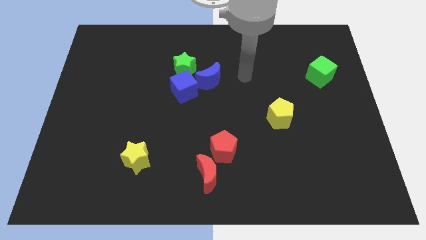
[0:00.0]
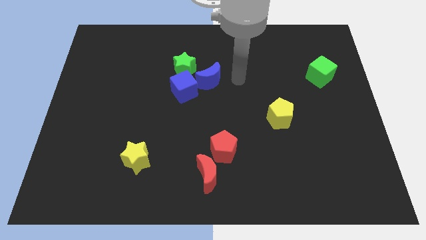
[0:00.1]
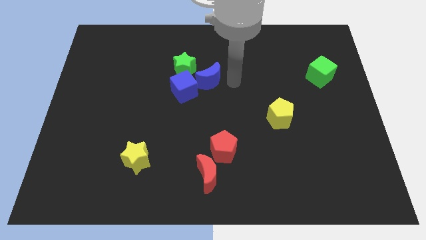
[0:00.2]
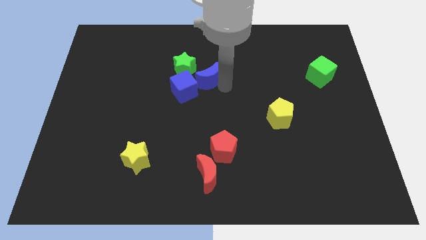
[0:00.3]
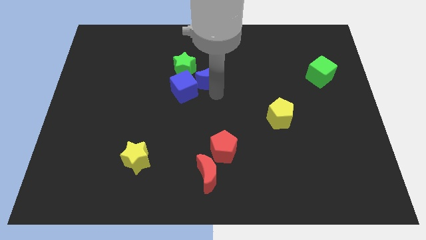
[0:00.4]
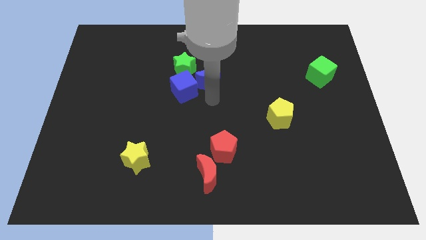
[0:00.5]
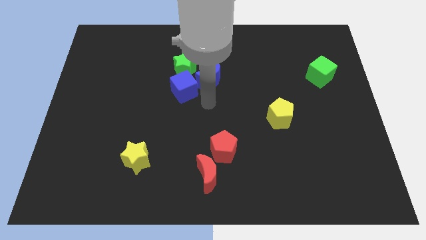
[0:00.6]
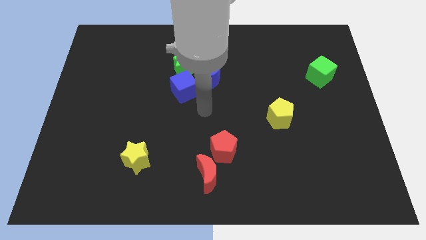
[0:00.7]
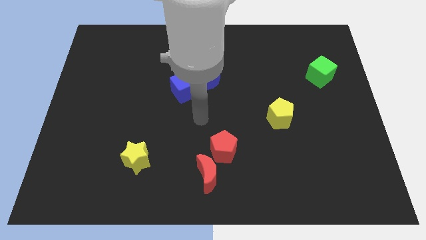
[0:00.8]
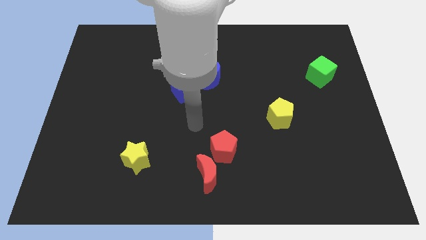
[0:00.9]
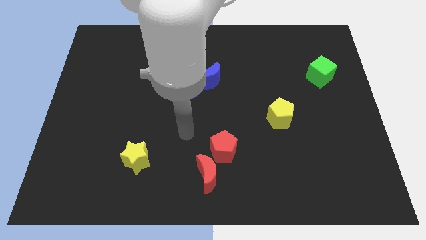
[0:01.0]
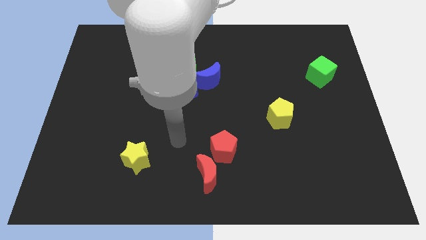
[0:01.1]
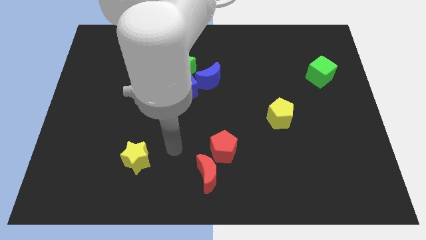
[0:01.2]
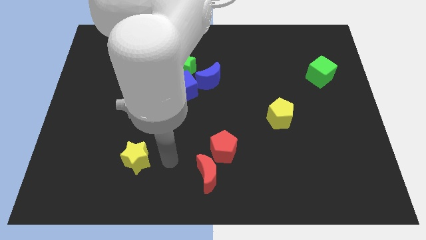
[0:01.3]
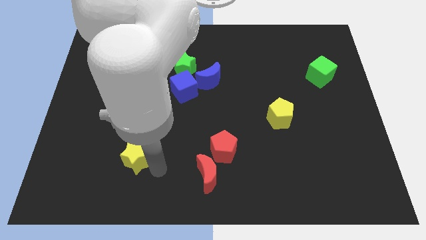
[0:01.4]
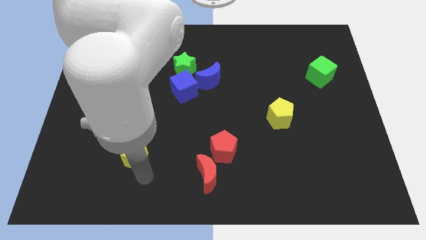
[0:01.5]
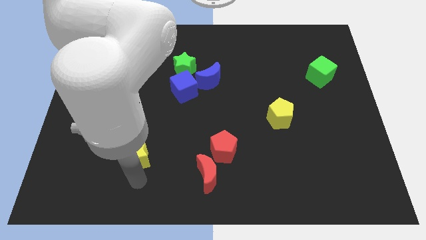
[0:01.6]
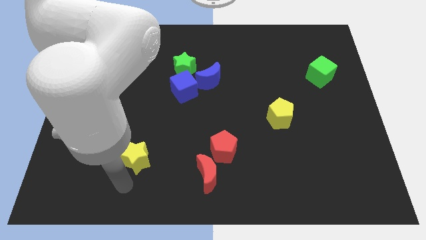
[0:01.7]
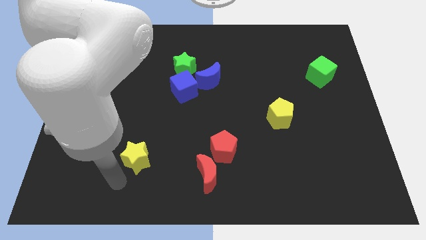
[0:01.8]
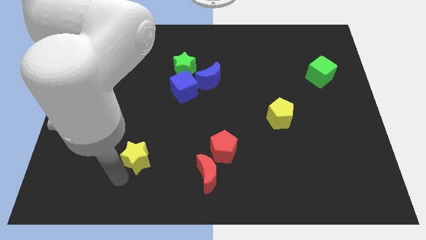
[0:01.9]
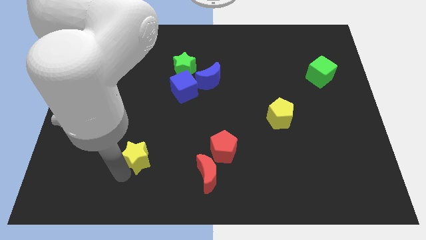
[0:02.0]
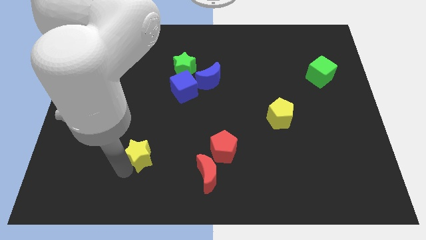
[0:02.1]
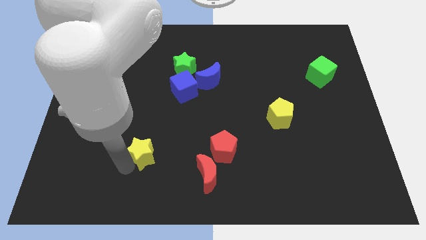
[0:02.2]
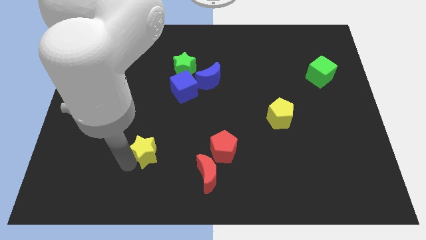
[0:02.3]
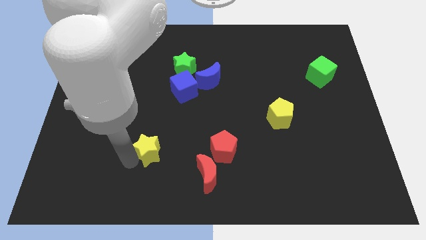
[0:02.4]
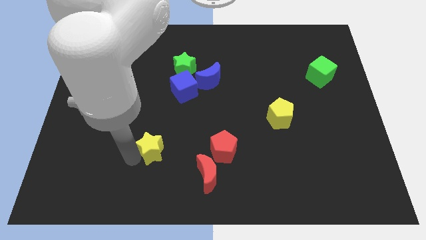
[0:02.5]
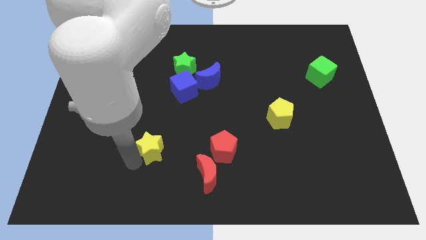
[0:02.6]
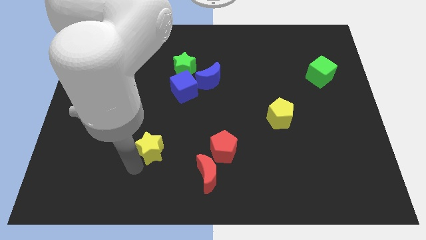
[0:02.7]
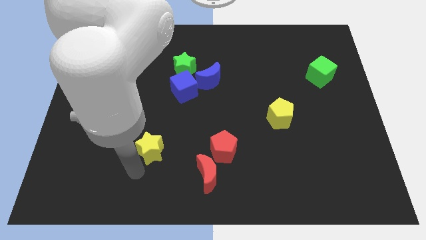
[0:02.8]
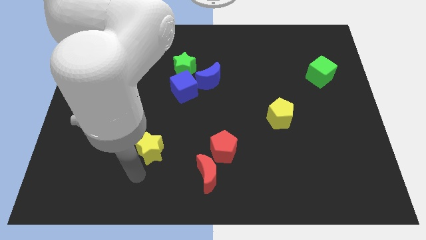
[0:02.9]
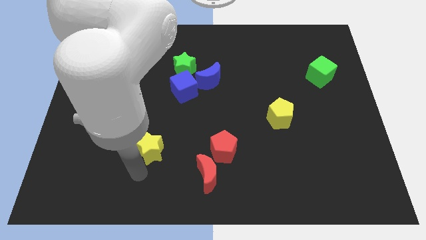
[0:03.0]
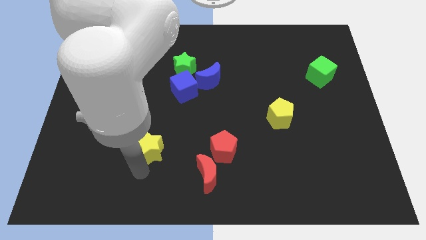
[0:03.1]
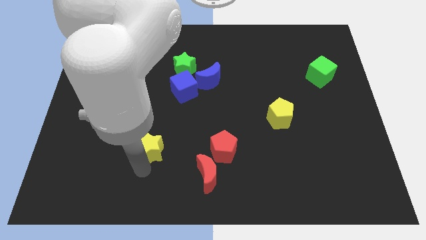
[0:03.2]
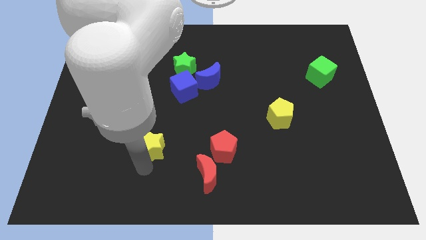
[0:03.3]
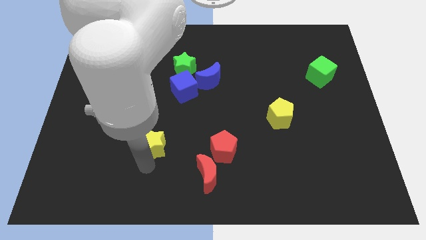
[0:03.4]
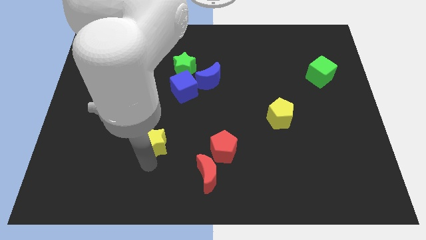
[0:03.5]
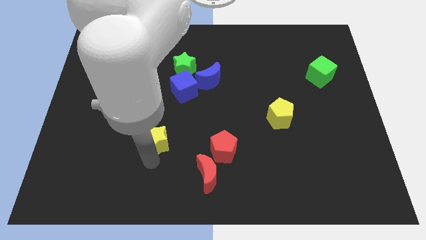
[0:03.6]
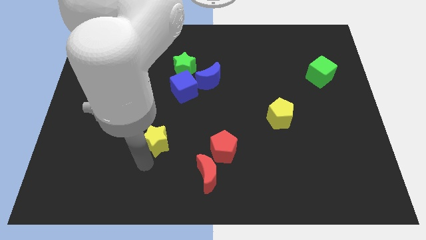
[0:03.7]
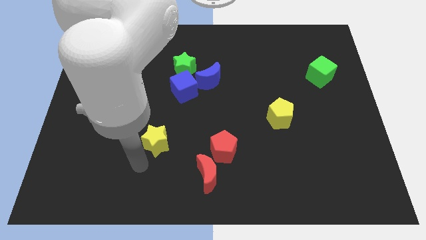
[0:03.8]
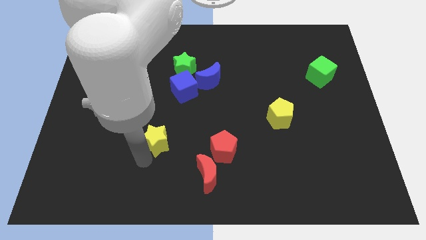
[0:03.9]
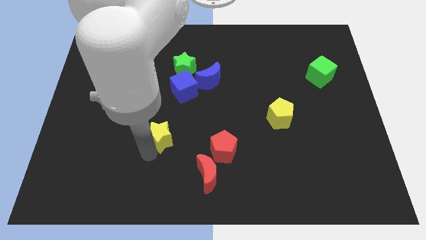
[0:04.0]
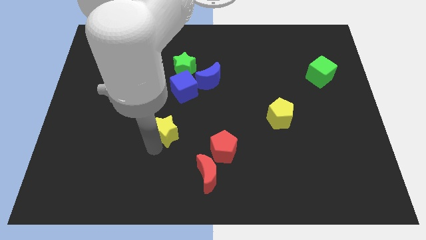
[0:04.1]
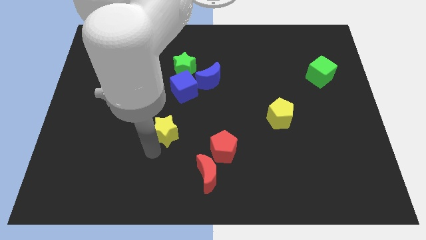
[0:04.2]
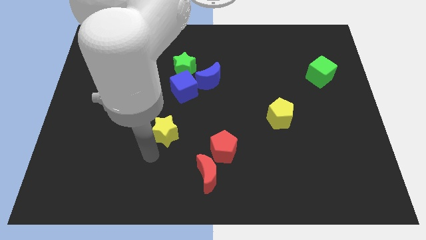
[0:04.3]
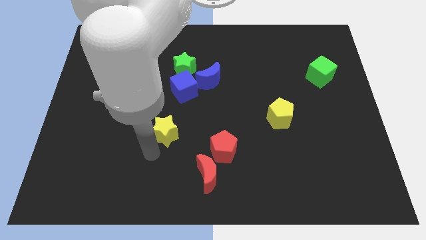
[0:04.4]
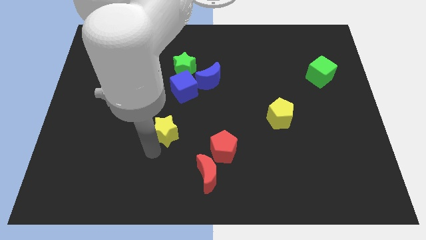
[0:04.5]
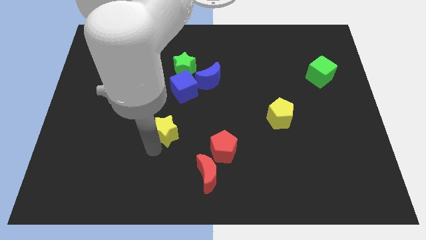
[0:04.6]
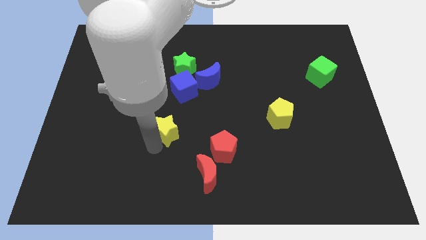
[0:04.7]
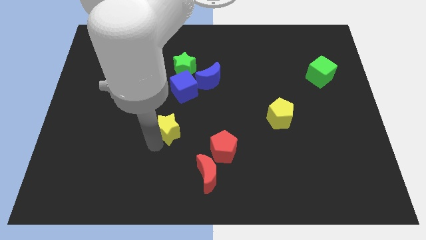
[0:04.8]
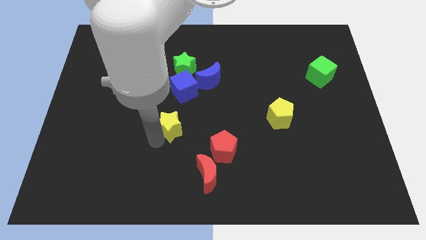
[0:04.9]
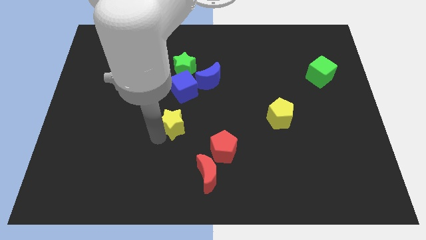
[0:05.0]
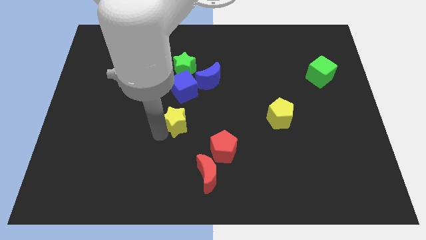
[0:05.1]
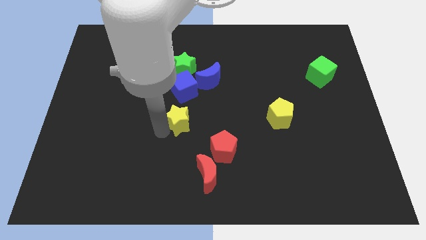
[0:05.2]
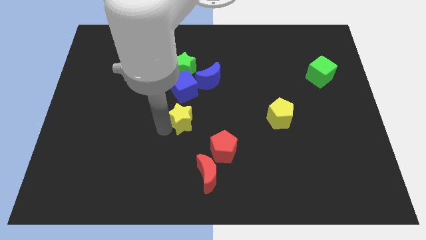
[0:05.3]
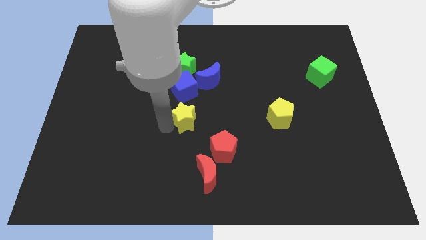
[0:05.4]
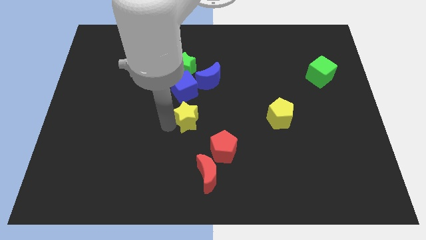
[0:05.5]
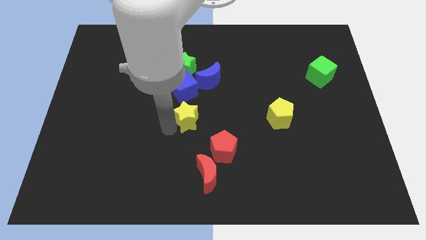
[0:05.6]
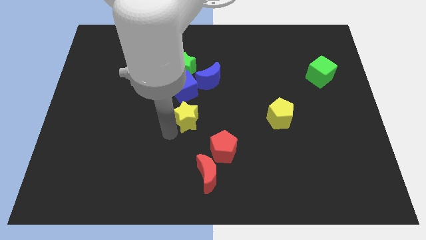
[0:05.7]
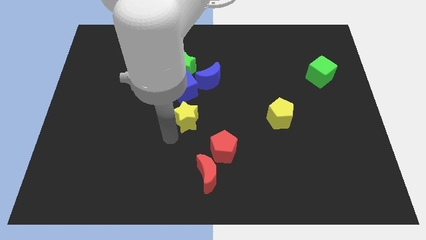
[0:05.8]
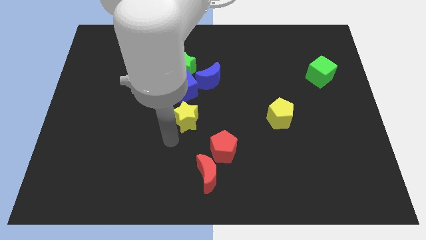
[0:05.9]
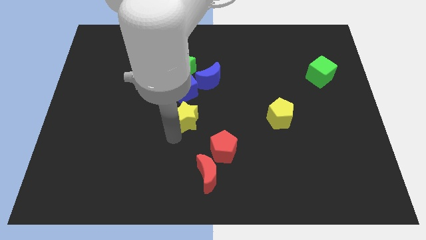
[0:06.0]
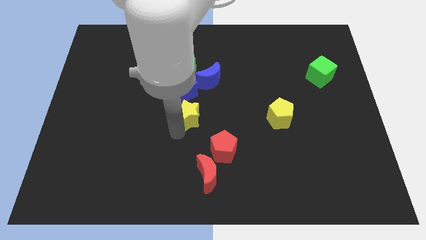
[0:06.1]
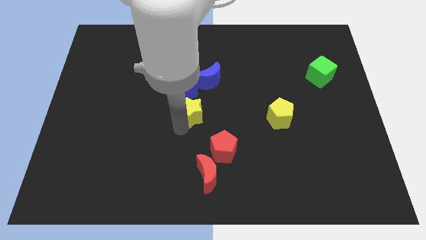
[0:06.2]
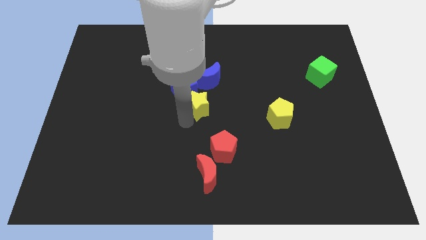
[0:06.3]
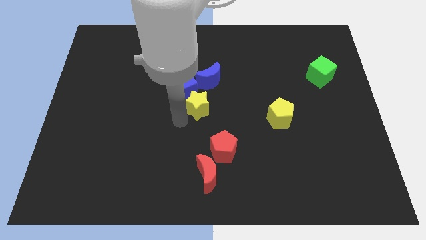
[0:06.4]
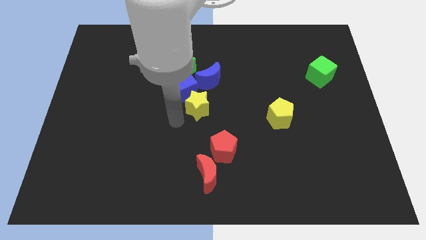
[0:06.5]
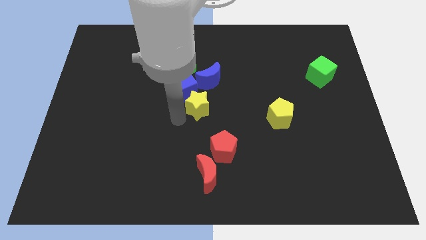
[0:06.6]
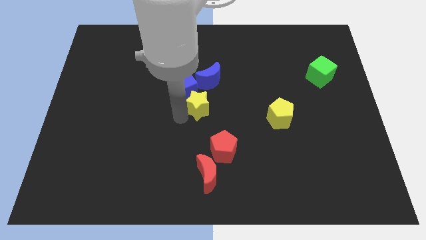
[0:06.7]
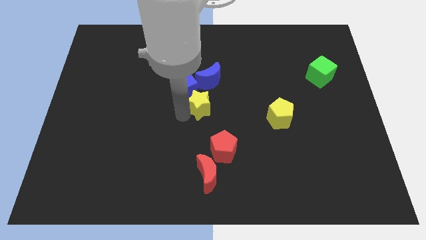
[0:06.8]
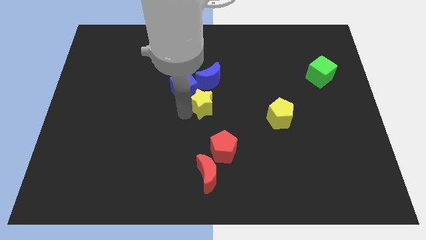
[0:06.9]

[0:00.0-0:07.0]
slide the yellow star up and then right

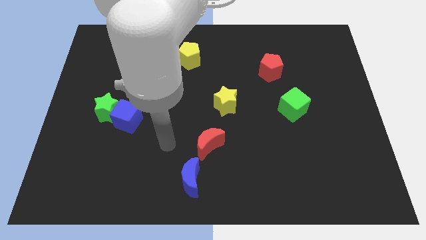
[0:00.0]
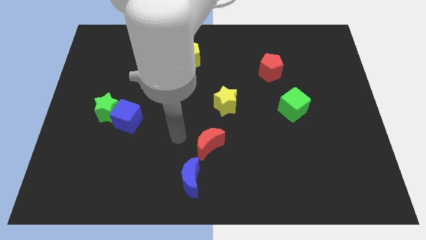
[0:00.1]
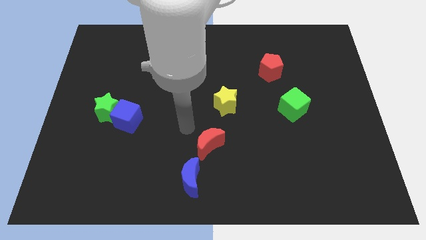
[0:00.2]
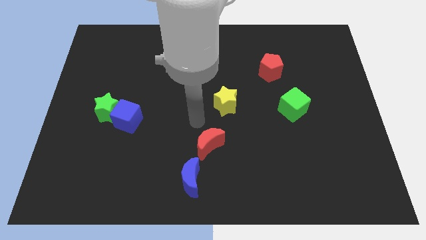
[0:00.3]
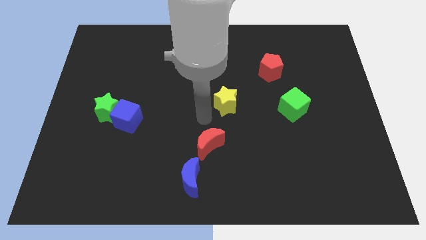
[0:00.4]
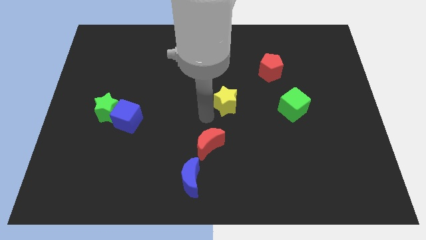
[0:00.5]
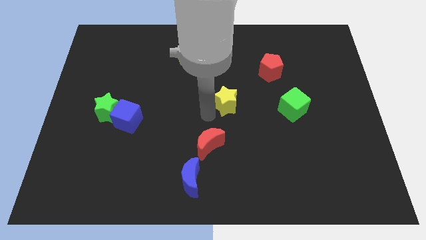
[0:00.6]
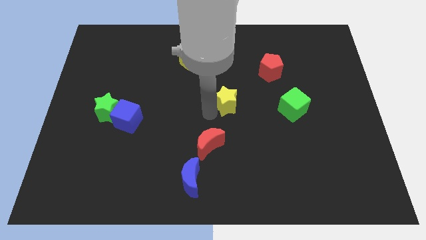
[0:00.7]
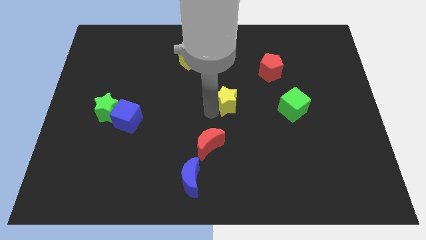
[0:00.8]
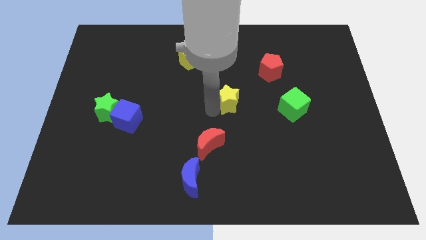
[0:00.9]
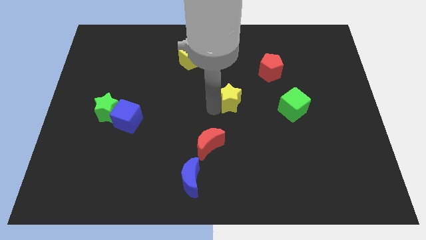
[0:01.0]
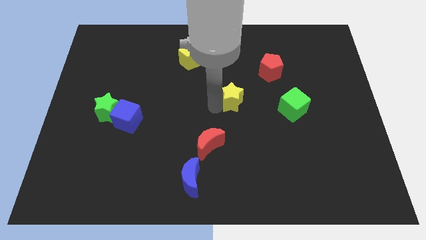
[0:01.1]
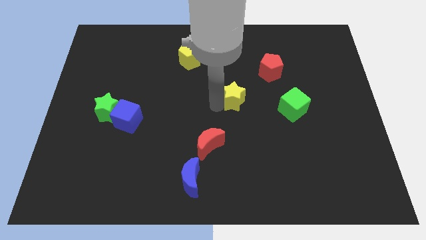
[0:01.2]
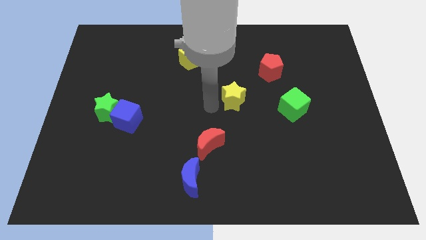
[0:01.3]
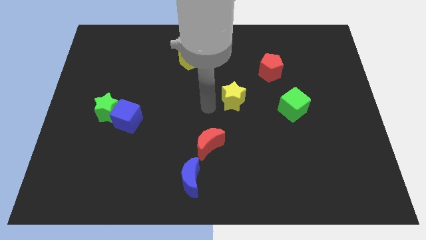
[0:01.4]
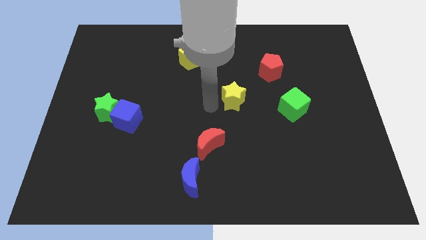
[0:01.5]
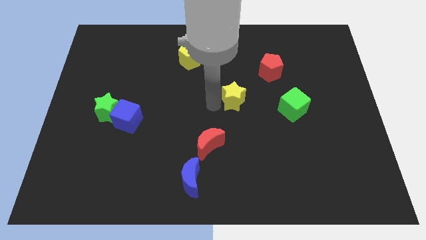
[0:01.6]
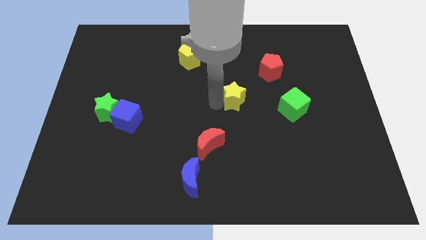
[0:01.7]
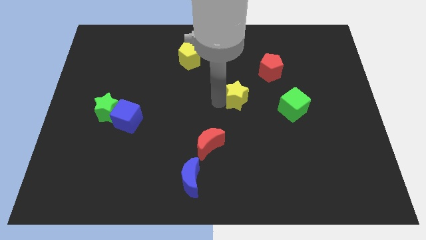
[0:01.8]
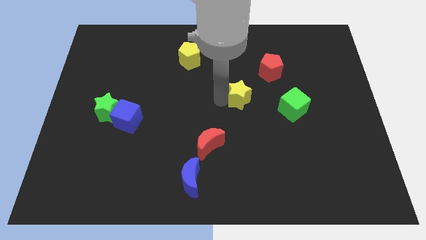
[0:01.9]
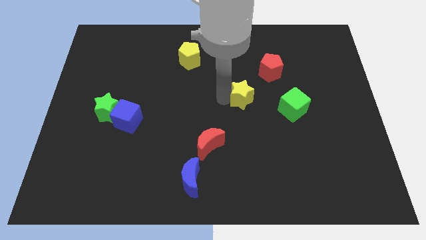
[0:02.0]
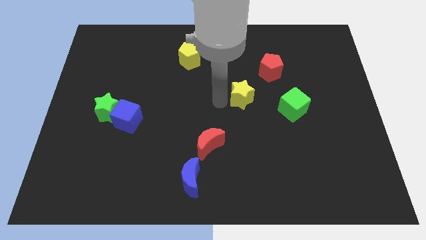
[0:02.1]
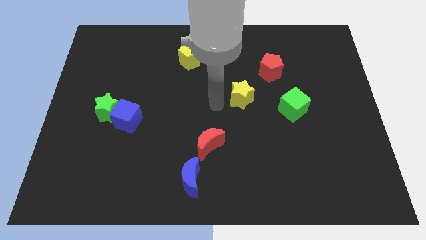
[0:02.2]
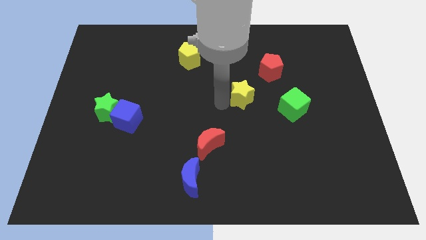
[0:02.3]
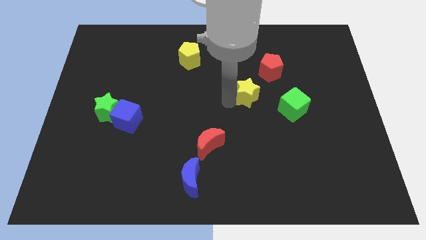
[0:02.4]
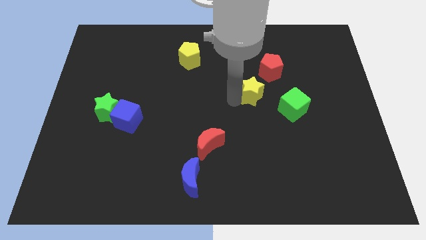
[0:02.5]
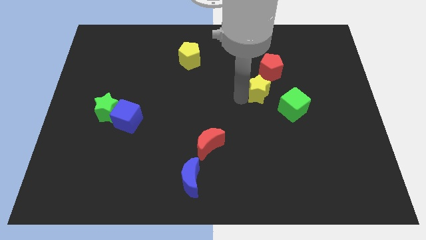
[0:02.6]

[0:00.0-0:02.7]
push the yellow star slightly right
